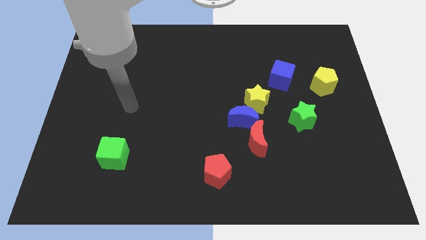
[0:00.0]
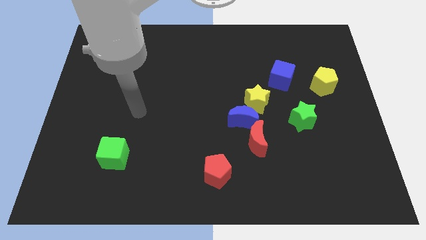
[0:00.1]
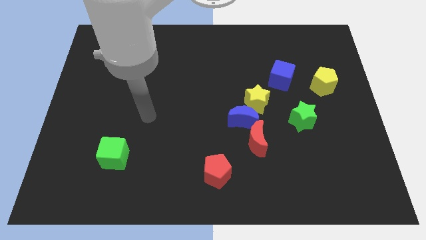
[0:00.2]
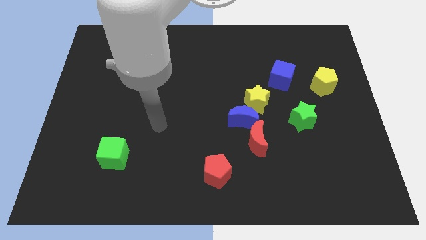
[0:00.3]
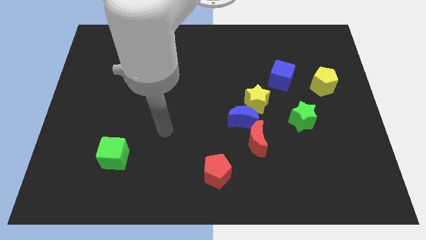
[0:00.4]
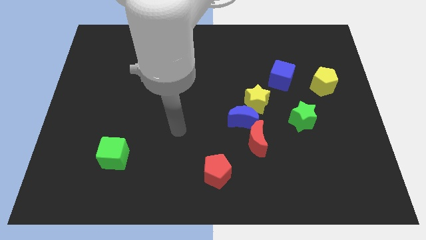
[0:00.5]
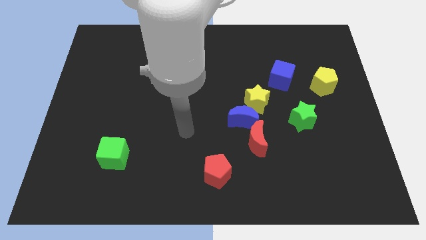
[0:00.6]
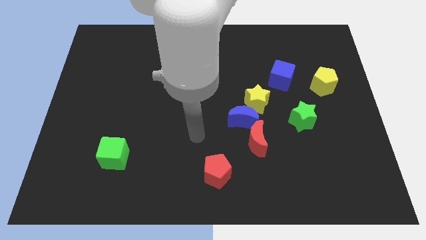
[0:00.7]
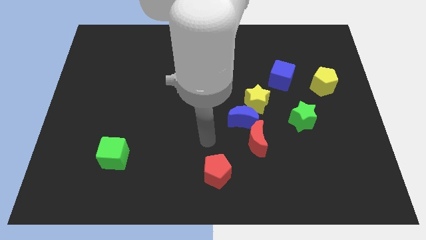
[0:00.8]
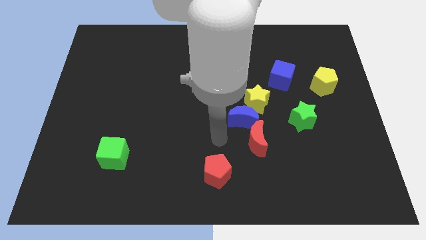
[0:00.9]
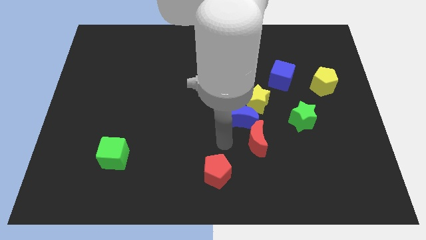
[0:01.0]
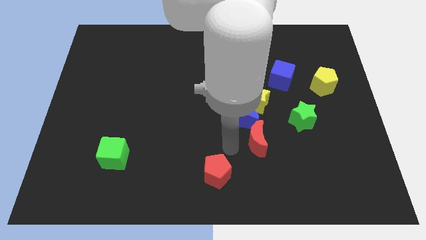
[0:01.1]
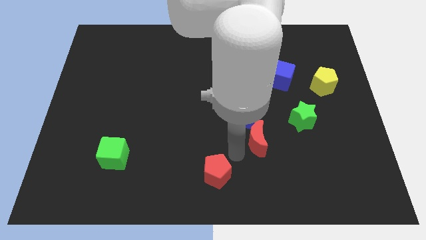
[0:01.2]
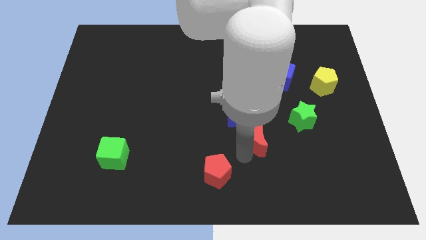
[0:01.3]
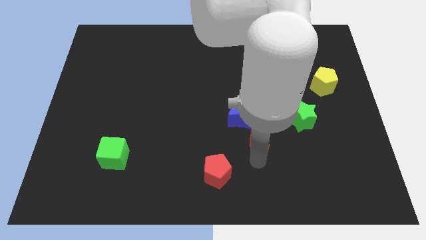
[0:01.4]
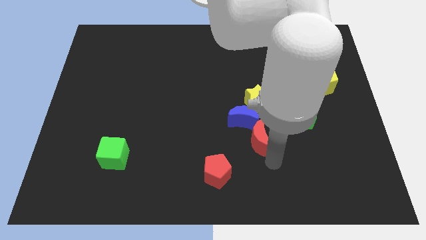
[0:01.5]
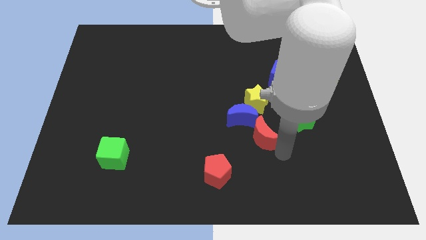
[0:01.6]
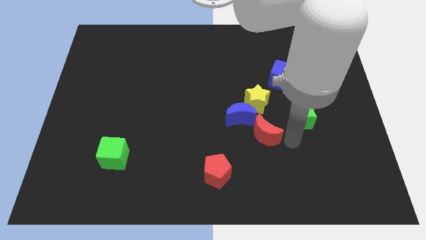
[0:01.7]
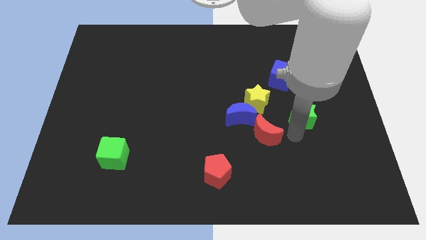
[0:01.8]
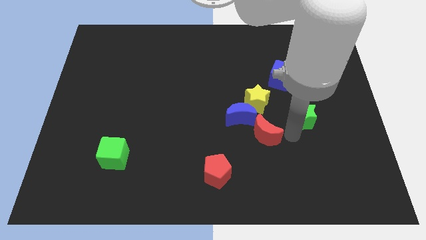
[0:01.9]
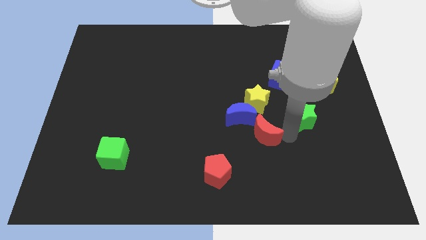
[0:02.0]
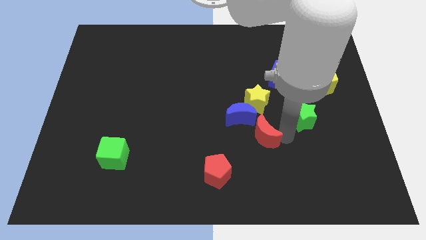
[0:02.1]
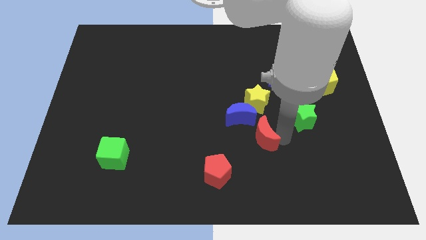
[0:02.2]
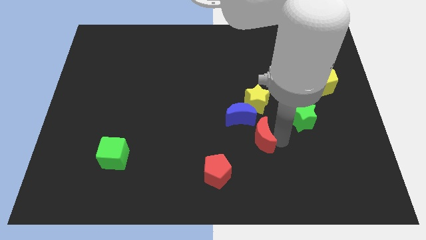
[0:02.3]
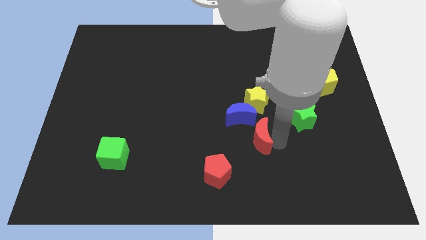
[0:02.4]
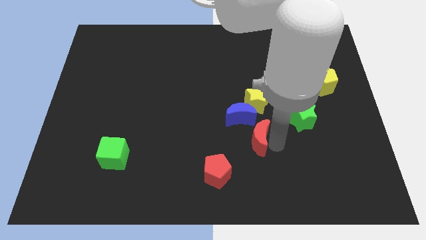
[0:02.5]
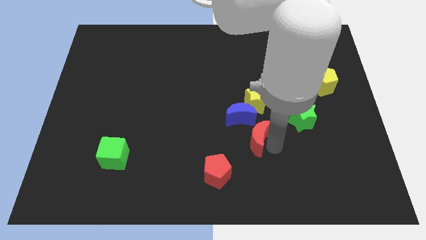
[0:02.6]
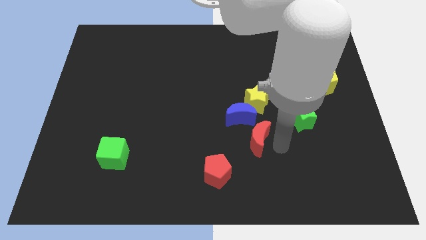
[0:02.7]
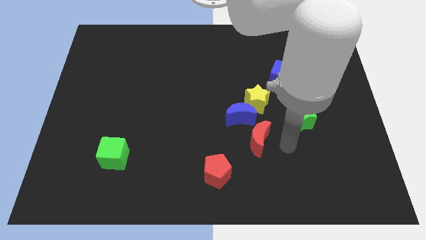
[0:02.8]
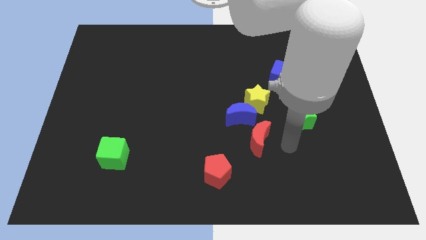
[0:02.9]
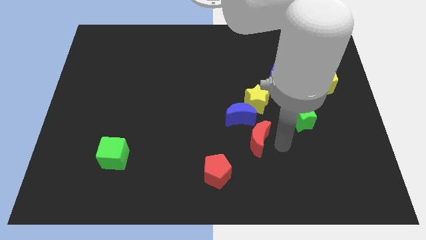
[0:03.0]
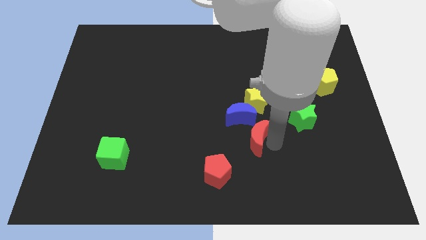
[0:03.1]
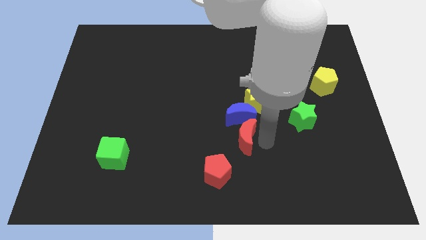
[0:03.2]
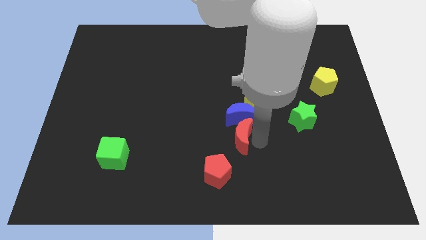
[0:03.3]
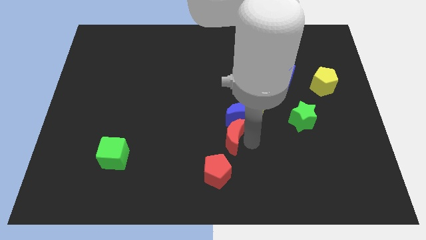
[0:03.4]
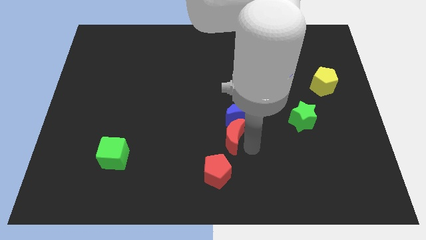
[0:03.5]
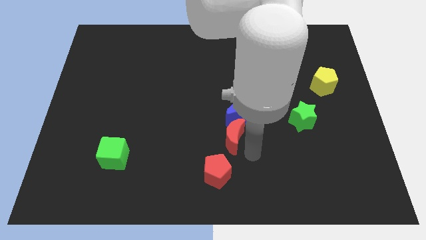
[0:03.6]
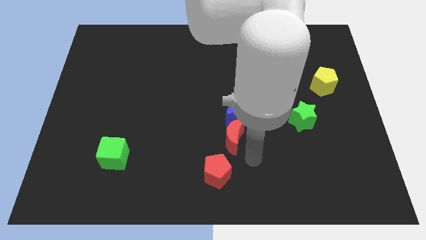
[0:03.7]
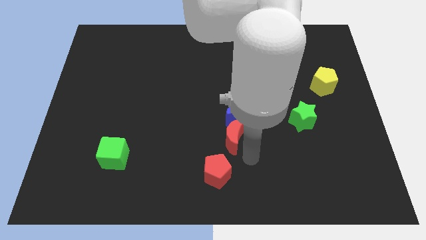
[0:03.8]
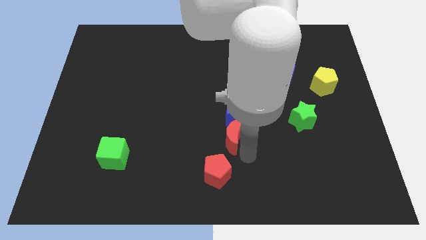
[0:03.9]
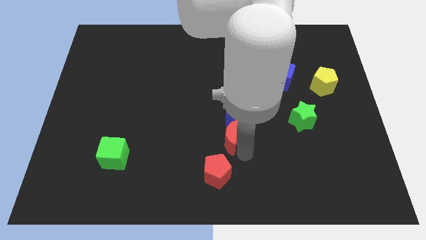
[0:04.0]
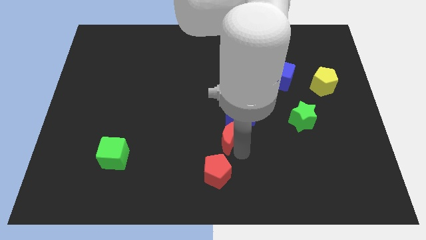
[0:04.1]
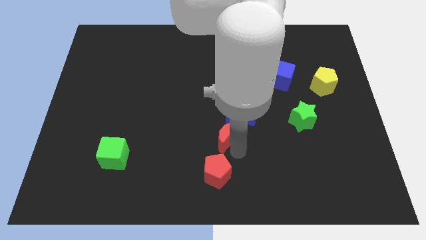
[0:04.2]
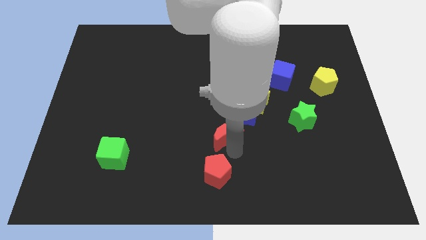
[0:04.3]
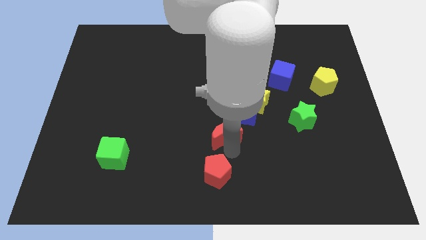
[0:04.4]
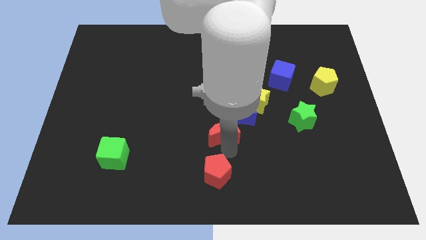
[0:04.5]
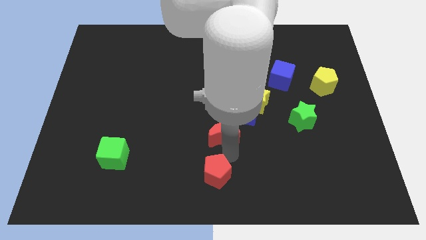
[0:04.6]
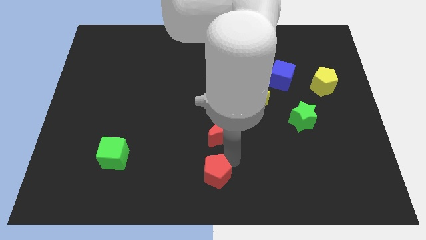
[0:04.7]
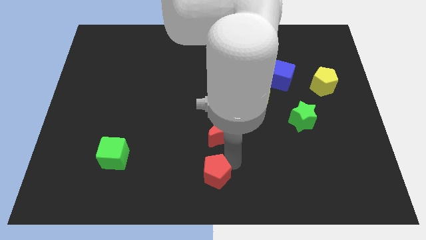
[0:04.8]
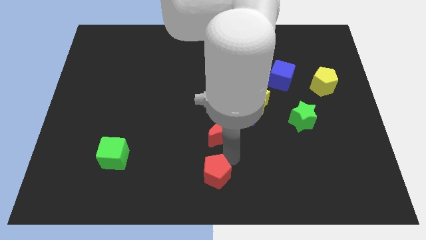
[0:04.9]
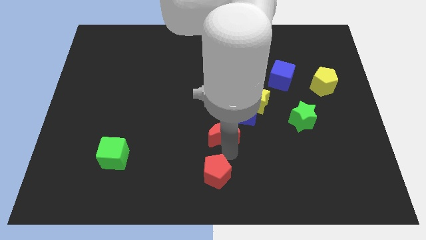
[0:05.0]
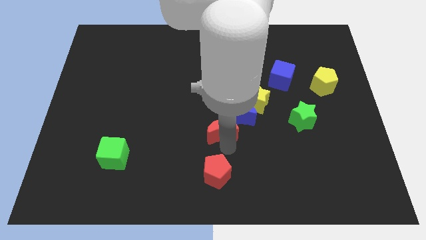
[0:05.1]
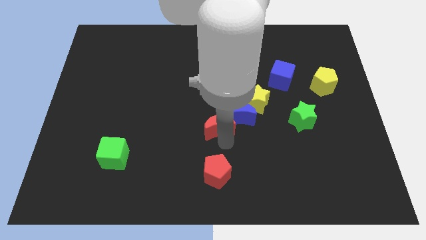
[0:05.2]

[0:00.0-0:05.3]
move the red moon up and to the left a little

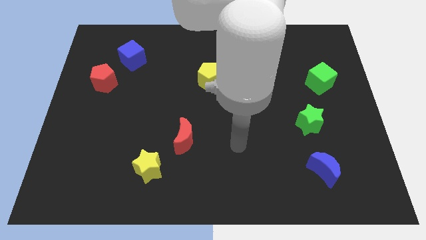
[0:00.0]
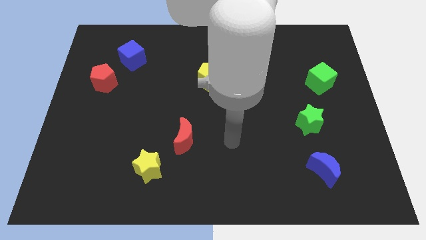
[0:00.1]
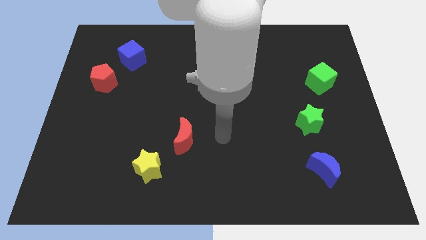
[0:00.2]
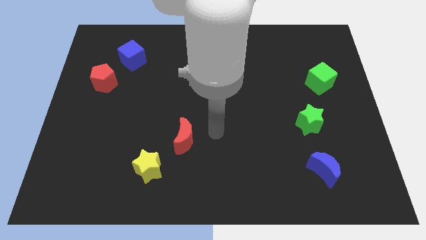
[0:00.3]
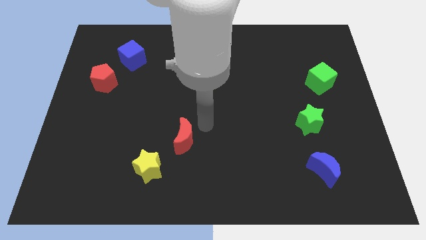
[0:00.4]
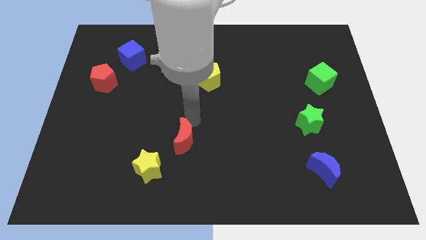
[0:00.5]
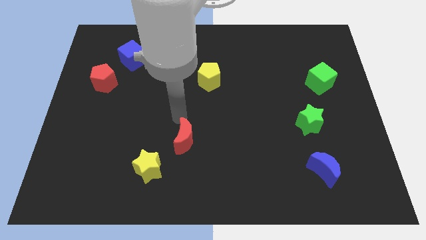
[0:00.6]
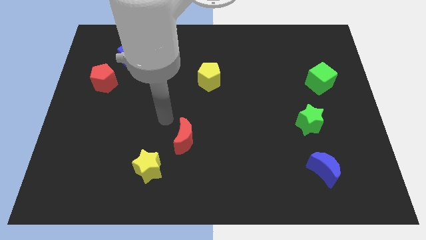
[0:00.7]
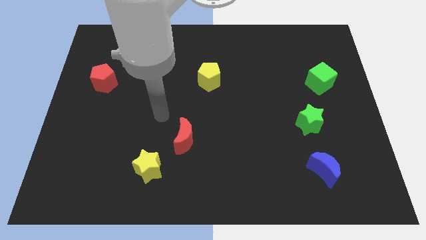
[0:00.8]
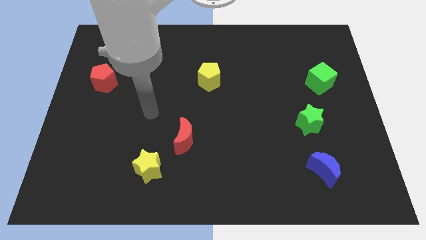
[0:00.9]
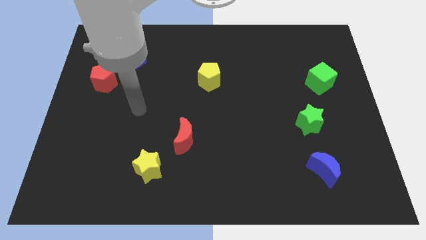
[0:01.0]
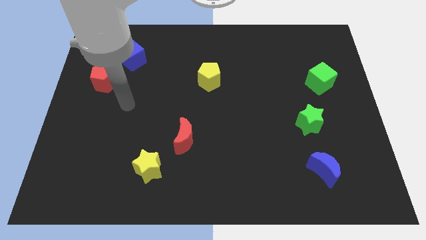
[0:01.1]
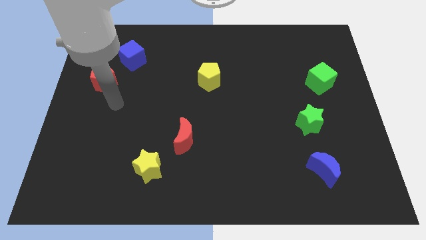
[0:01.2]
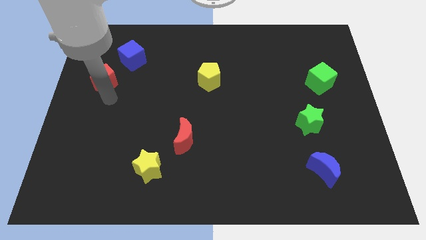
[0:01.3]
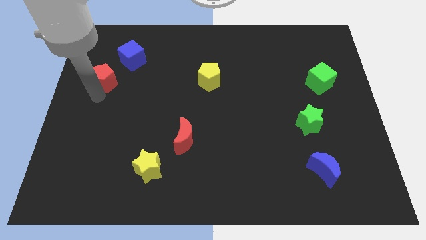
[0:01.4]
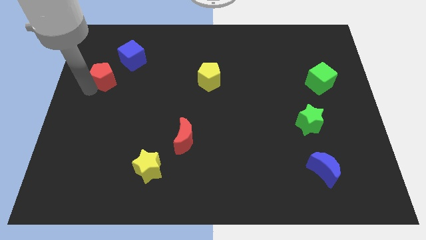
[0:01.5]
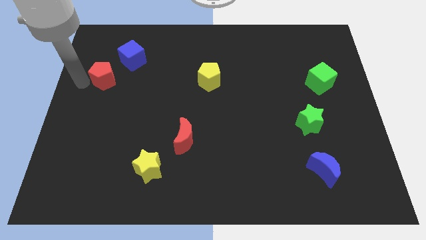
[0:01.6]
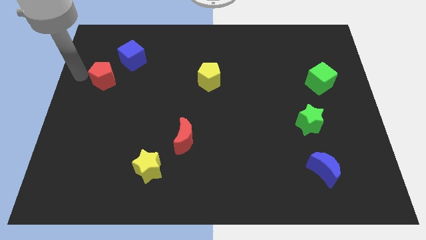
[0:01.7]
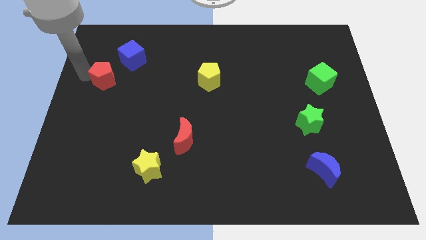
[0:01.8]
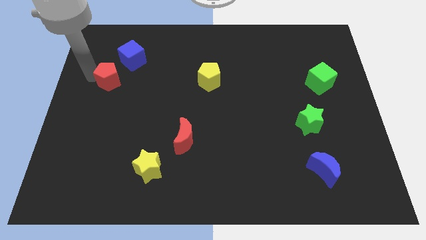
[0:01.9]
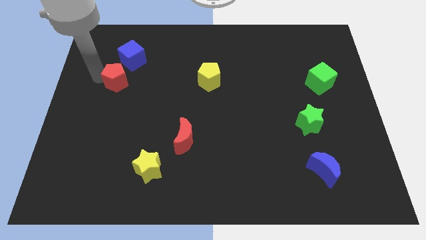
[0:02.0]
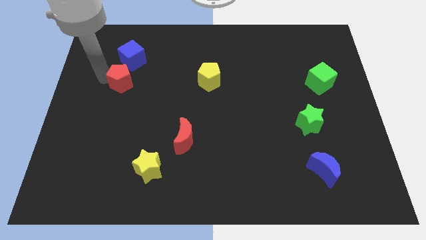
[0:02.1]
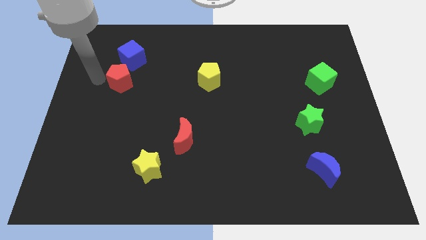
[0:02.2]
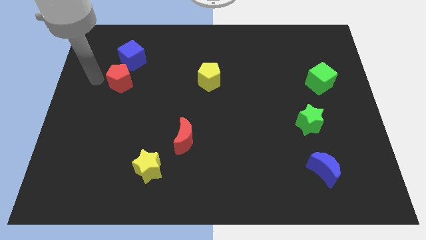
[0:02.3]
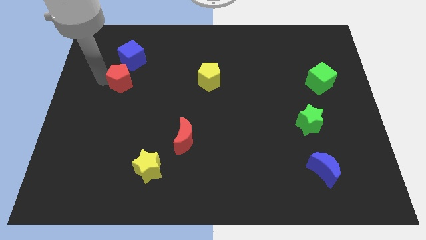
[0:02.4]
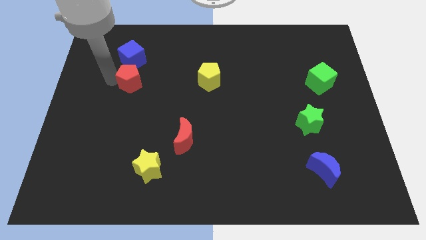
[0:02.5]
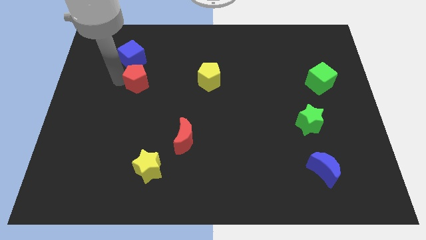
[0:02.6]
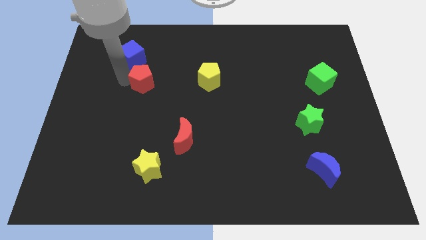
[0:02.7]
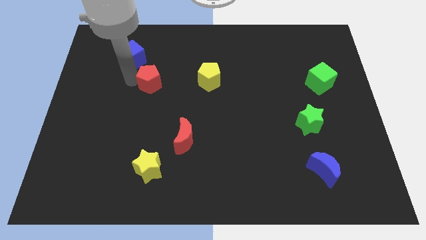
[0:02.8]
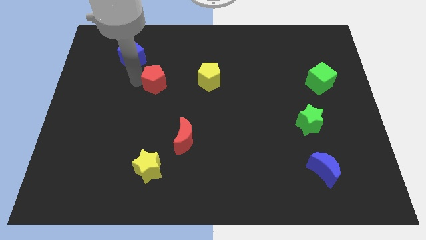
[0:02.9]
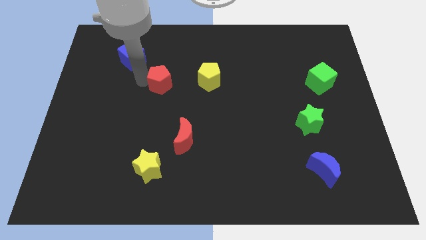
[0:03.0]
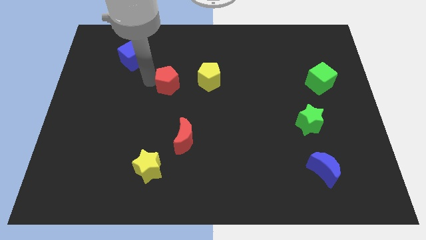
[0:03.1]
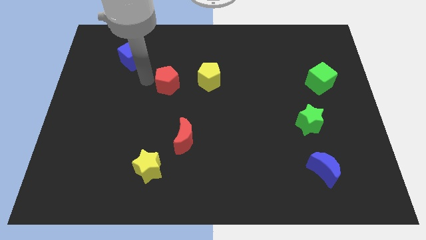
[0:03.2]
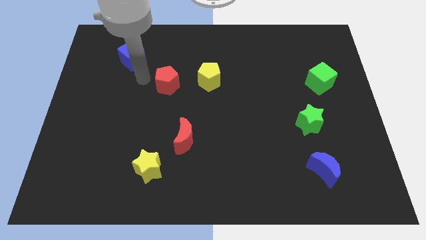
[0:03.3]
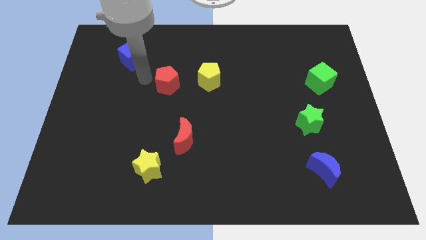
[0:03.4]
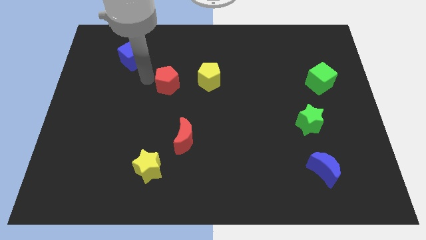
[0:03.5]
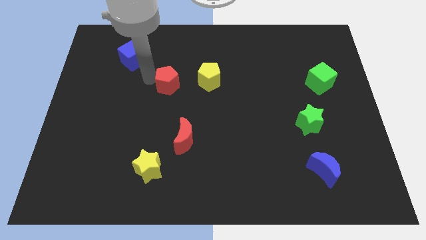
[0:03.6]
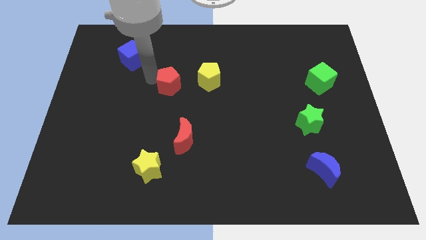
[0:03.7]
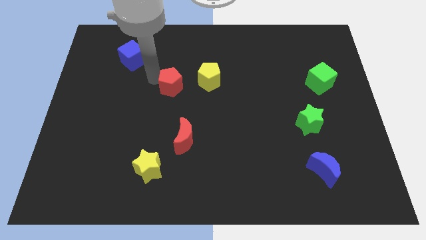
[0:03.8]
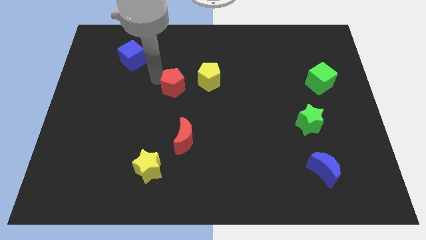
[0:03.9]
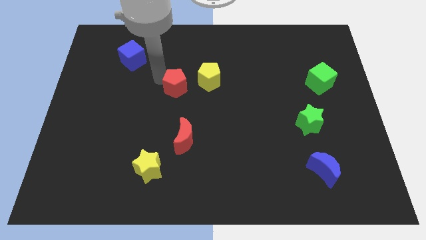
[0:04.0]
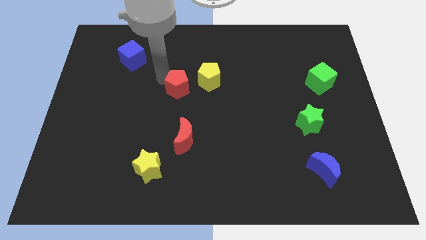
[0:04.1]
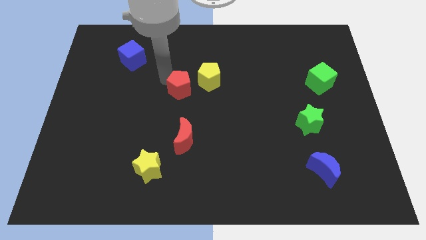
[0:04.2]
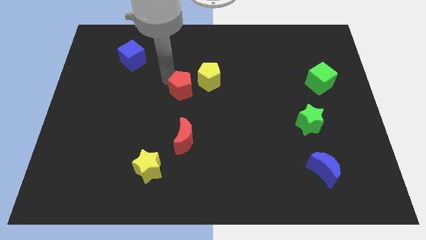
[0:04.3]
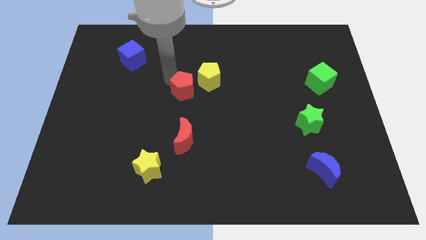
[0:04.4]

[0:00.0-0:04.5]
move the red pentagon right
